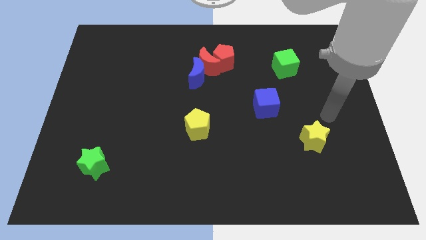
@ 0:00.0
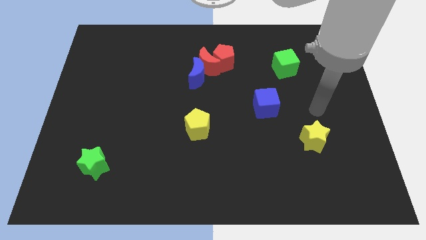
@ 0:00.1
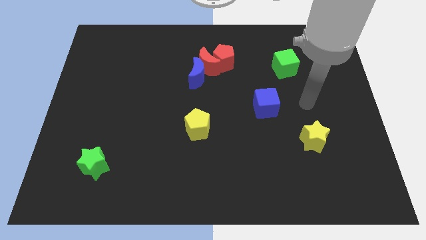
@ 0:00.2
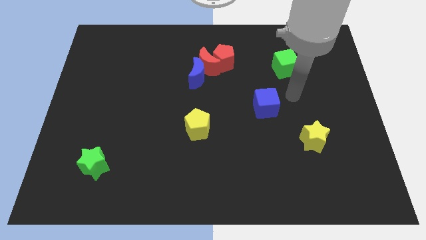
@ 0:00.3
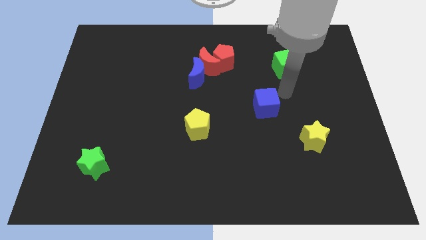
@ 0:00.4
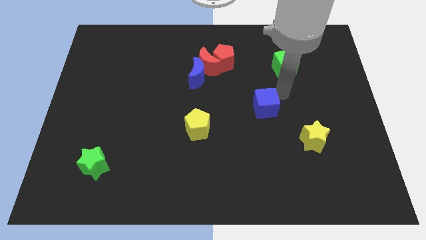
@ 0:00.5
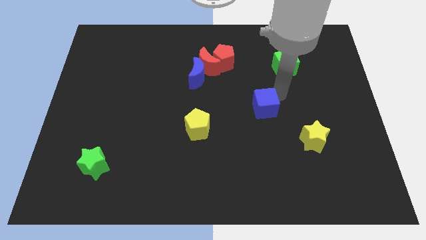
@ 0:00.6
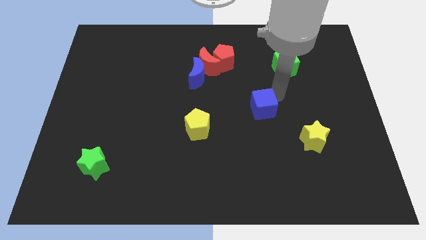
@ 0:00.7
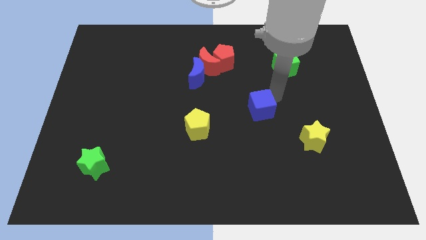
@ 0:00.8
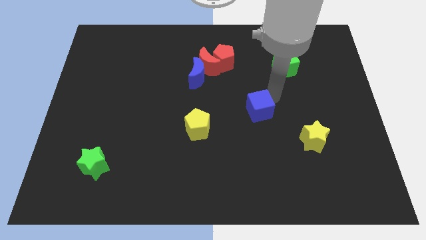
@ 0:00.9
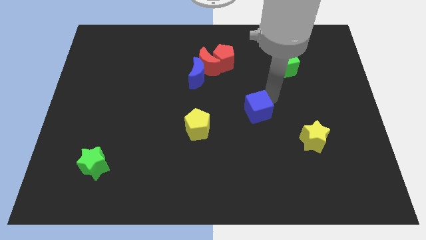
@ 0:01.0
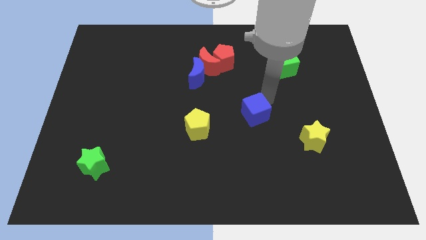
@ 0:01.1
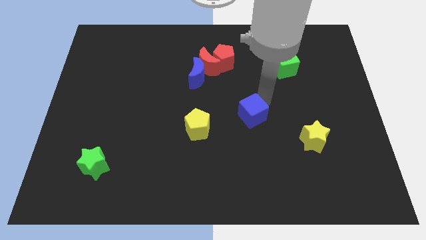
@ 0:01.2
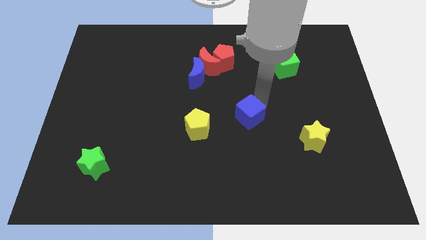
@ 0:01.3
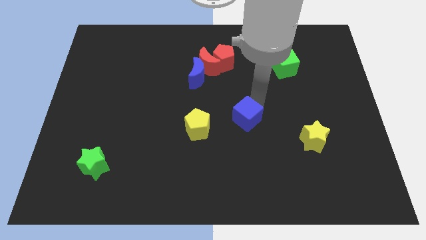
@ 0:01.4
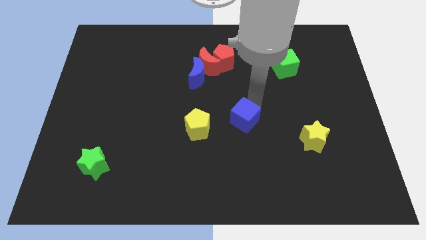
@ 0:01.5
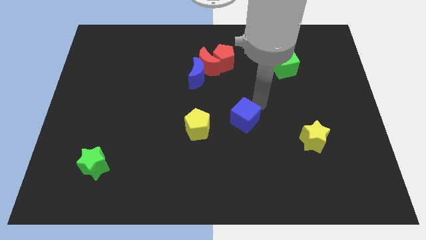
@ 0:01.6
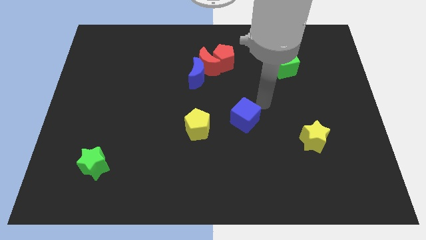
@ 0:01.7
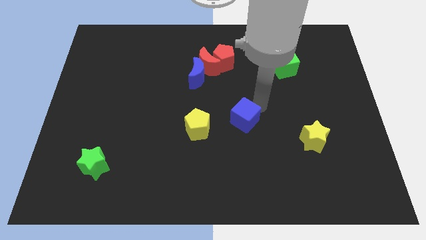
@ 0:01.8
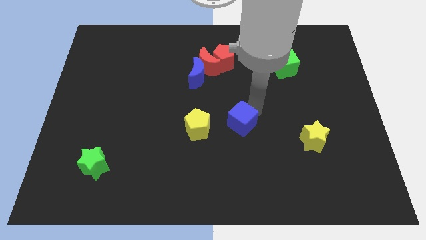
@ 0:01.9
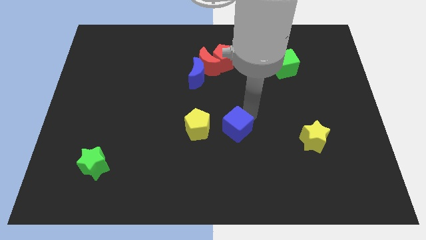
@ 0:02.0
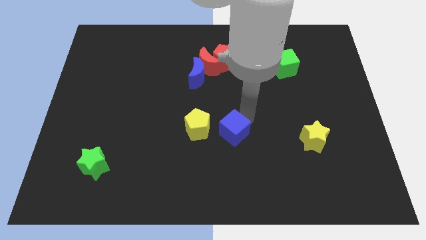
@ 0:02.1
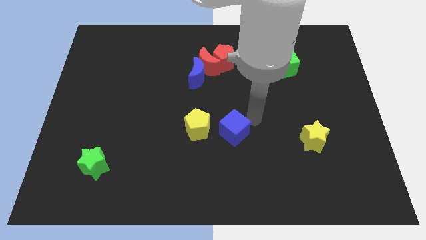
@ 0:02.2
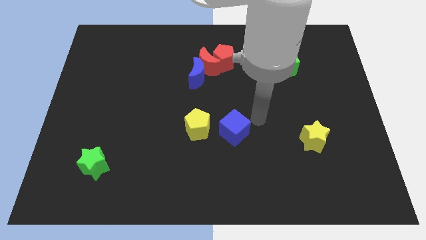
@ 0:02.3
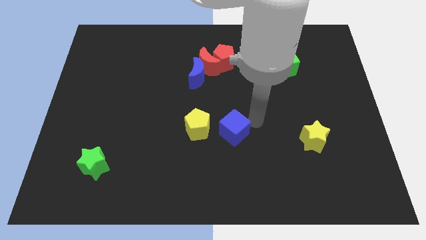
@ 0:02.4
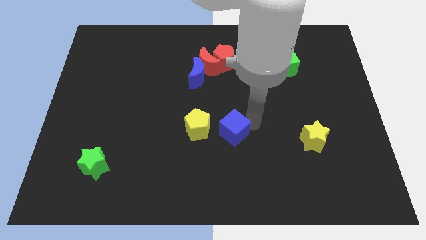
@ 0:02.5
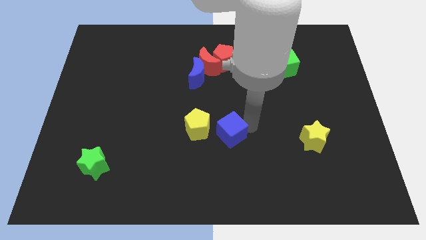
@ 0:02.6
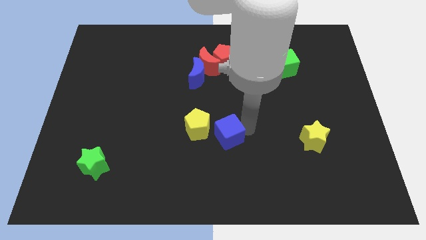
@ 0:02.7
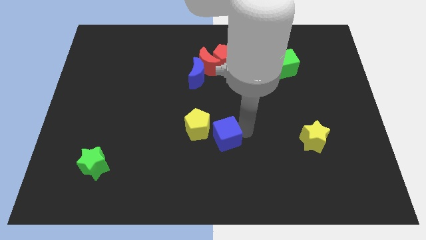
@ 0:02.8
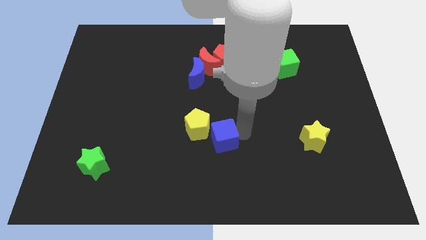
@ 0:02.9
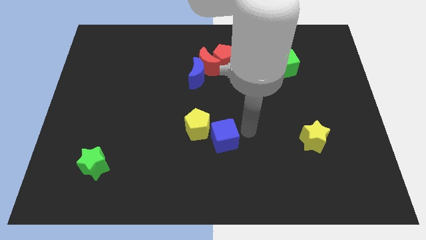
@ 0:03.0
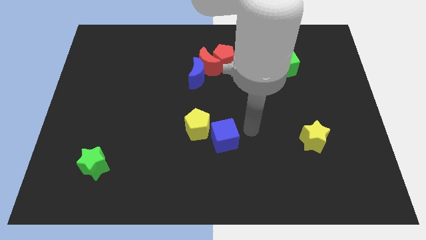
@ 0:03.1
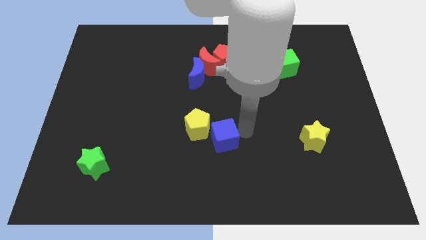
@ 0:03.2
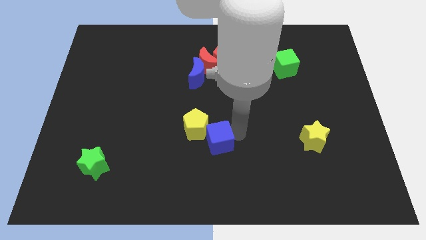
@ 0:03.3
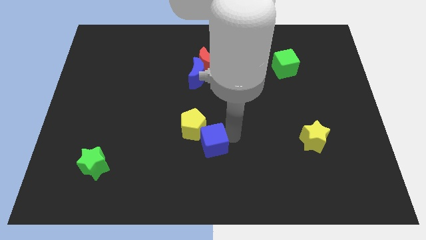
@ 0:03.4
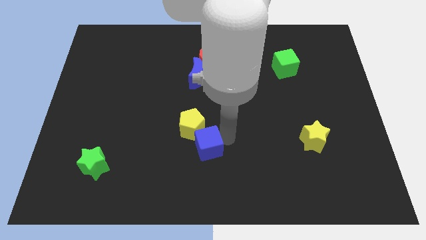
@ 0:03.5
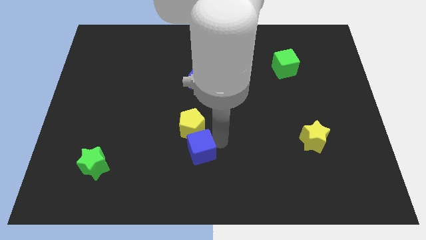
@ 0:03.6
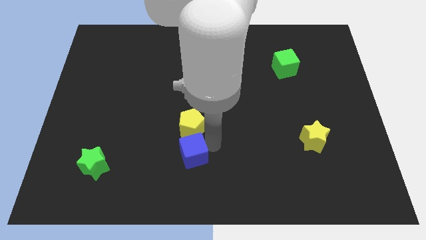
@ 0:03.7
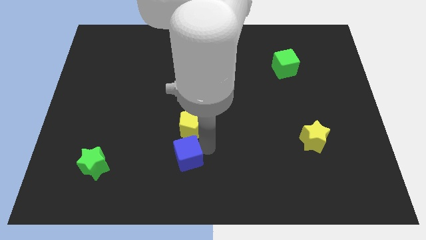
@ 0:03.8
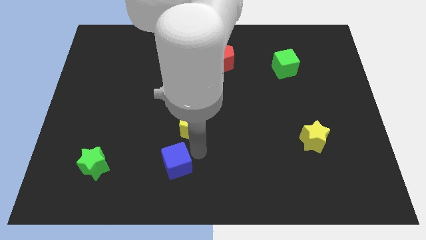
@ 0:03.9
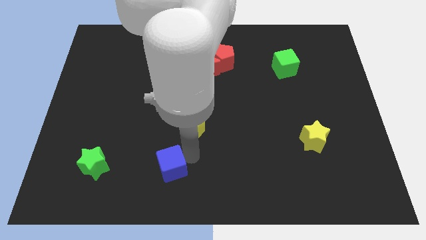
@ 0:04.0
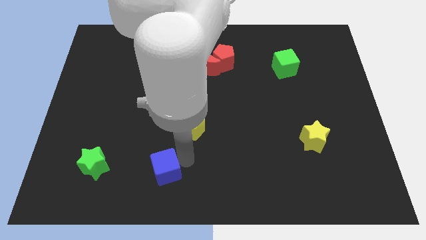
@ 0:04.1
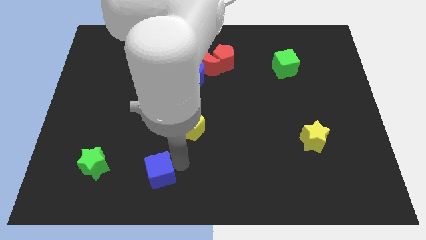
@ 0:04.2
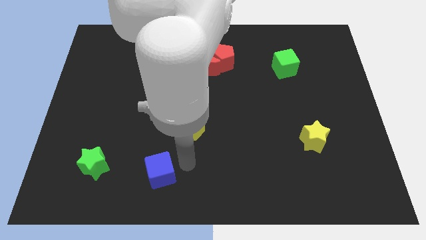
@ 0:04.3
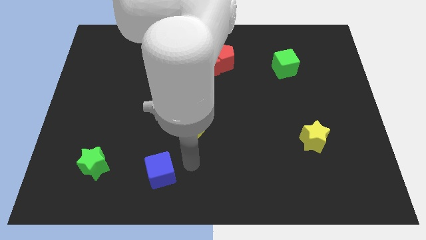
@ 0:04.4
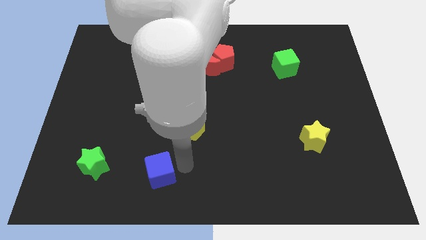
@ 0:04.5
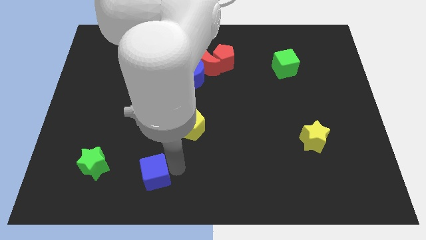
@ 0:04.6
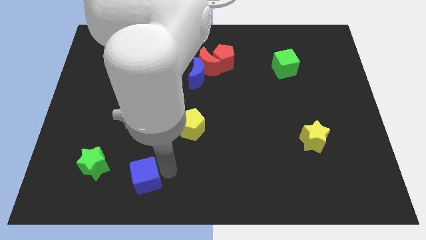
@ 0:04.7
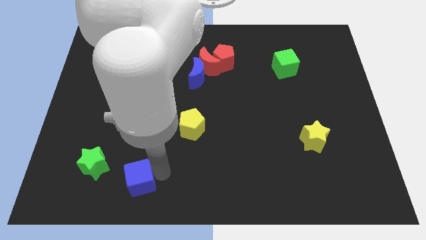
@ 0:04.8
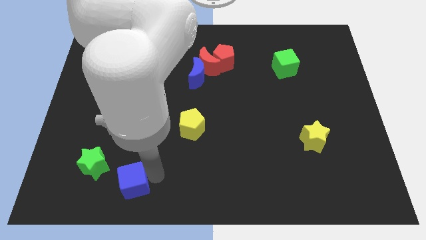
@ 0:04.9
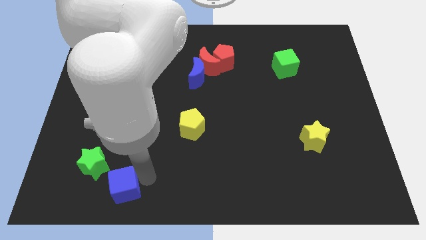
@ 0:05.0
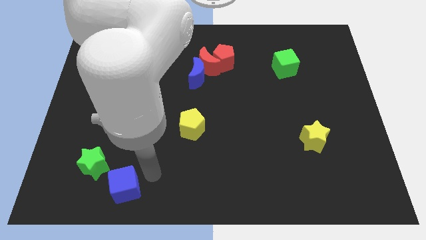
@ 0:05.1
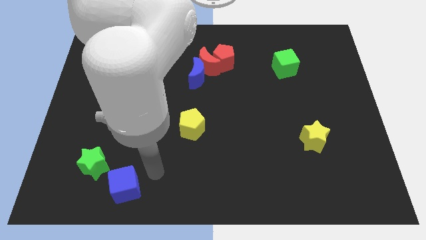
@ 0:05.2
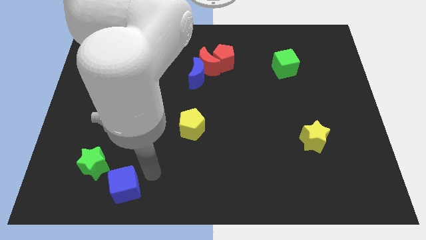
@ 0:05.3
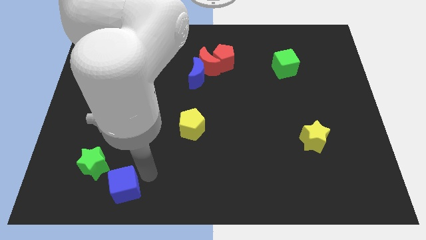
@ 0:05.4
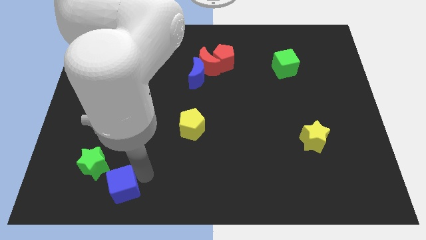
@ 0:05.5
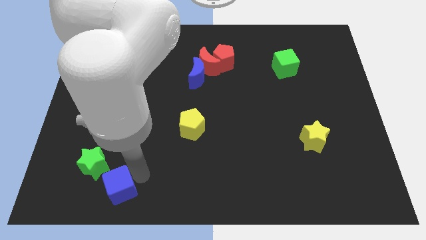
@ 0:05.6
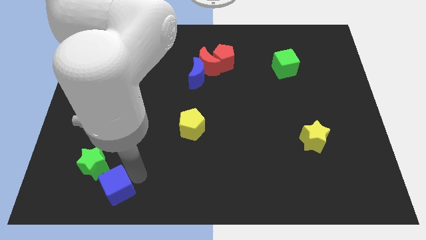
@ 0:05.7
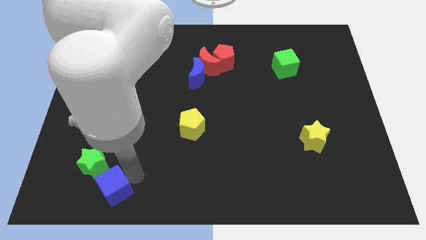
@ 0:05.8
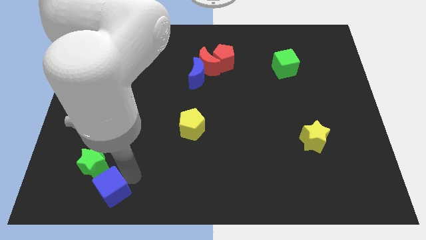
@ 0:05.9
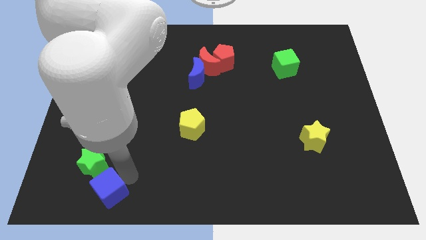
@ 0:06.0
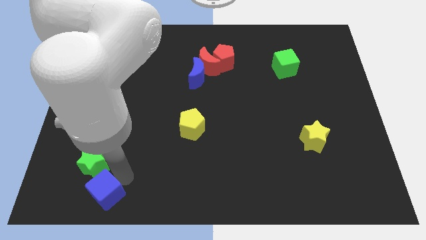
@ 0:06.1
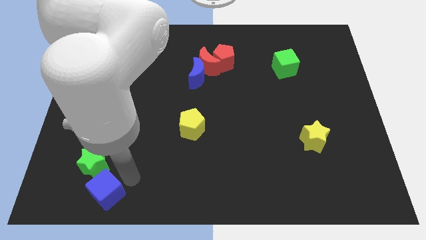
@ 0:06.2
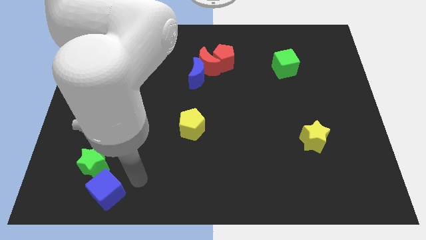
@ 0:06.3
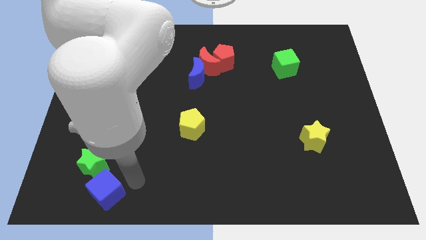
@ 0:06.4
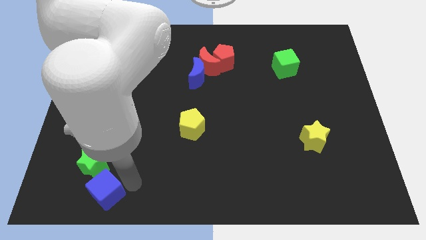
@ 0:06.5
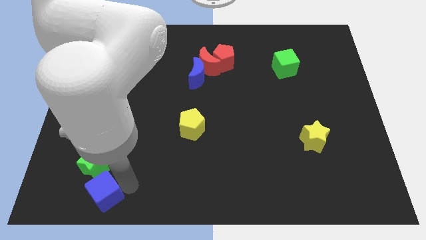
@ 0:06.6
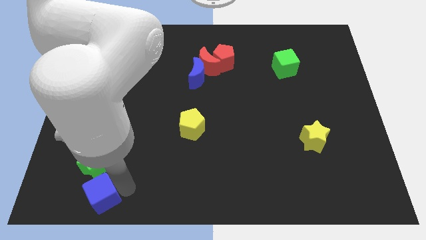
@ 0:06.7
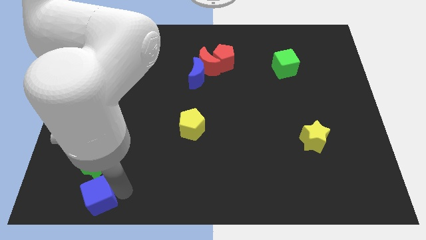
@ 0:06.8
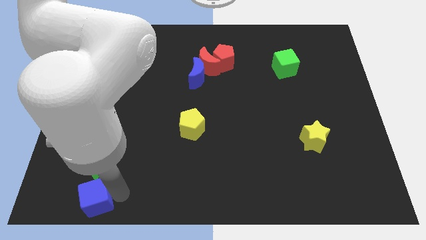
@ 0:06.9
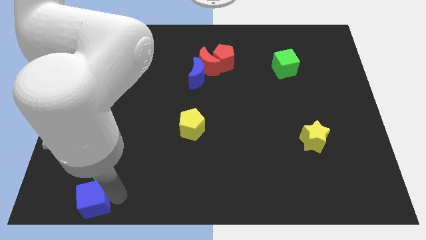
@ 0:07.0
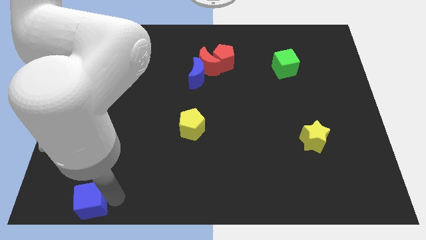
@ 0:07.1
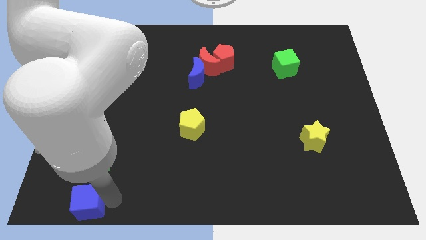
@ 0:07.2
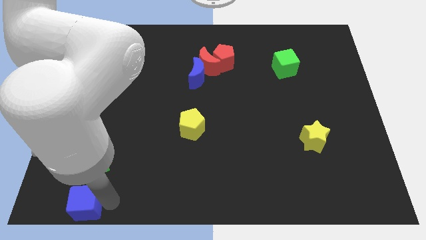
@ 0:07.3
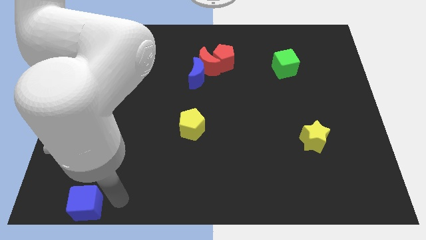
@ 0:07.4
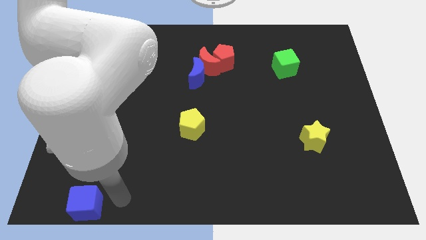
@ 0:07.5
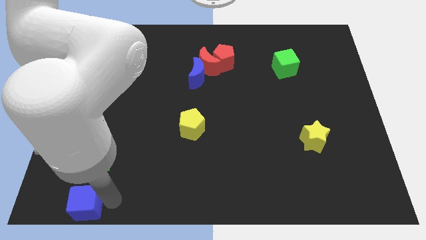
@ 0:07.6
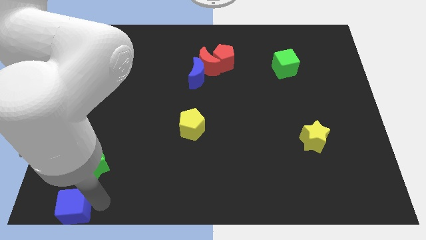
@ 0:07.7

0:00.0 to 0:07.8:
push the blue cube to the bottom left
